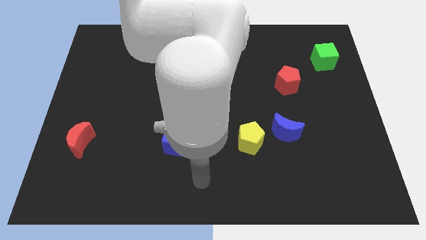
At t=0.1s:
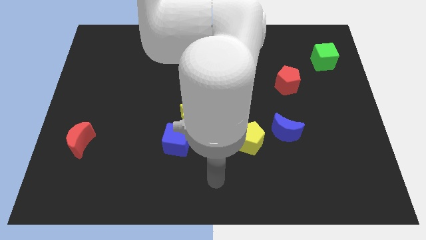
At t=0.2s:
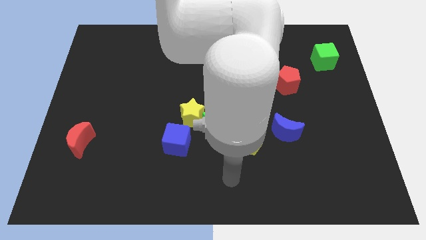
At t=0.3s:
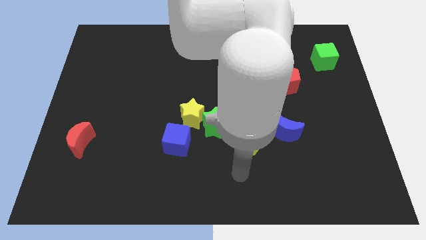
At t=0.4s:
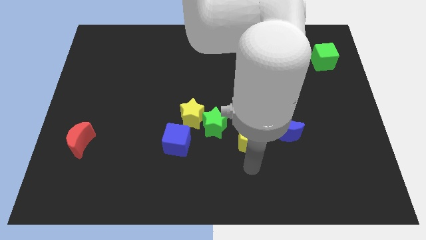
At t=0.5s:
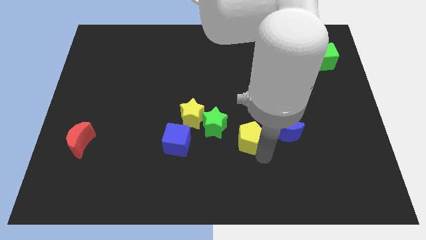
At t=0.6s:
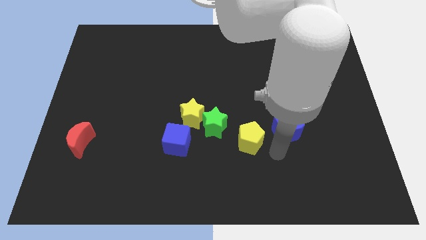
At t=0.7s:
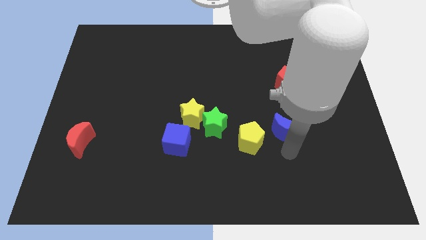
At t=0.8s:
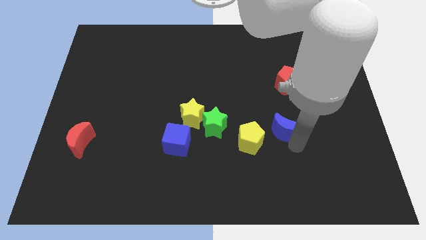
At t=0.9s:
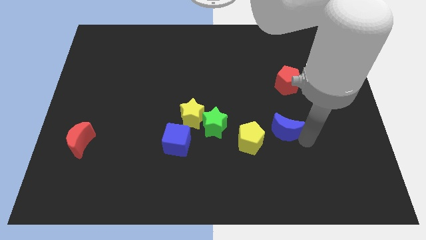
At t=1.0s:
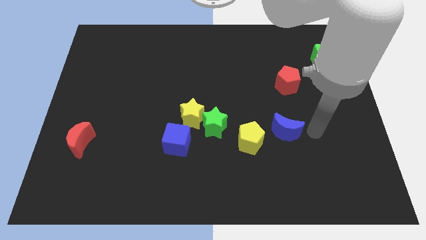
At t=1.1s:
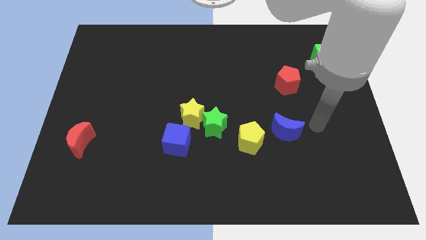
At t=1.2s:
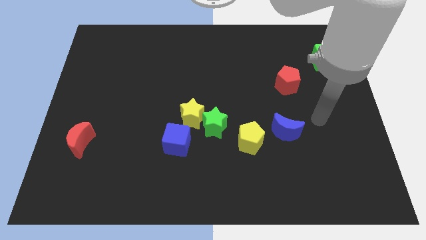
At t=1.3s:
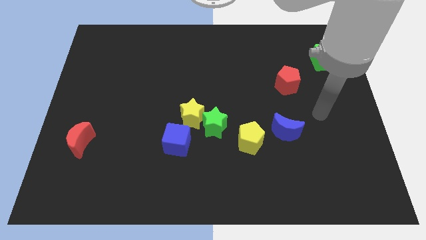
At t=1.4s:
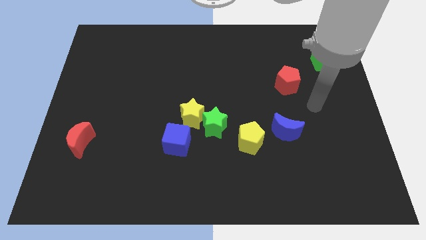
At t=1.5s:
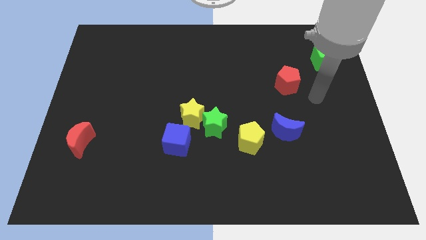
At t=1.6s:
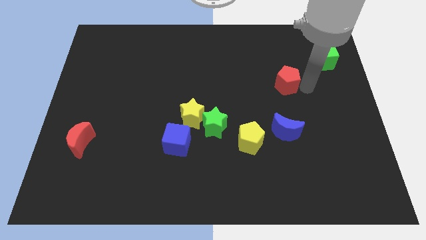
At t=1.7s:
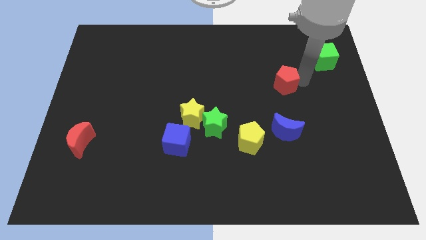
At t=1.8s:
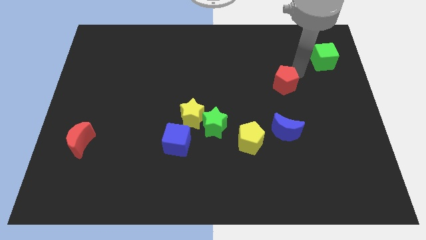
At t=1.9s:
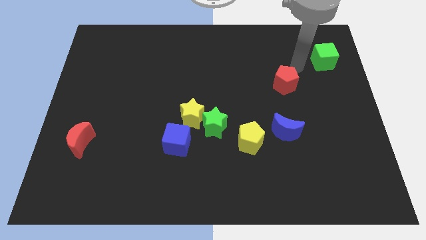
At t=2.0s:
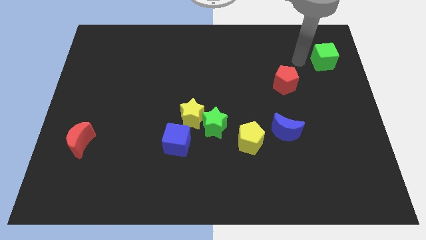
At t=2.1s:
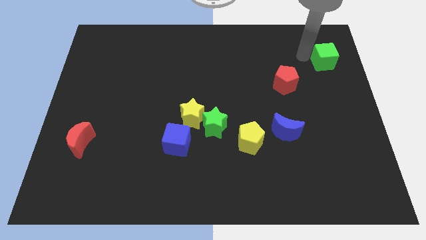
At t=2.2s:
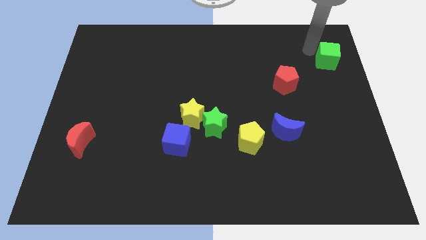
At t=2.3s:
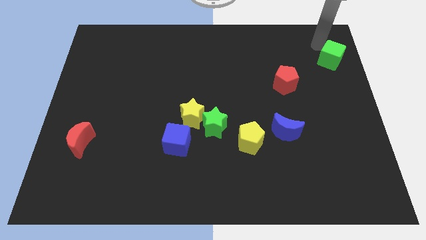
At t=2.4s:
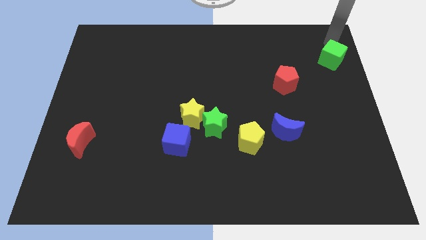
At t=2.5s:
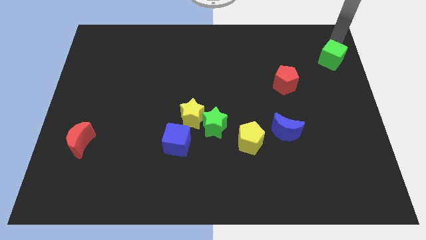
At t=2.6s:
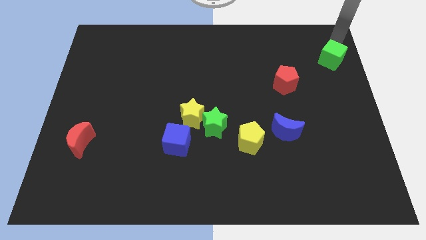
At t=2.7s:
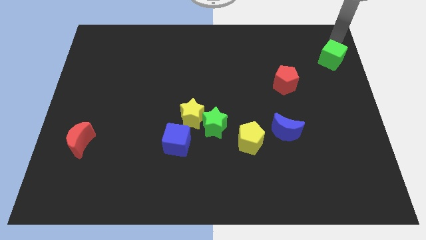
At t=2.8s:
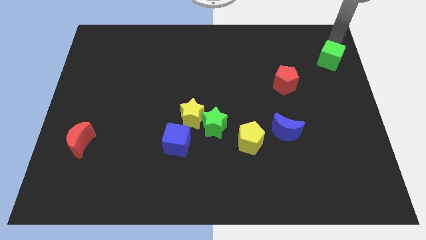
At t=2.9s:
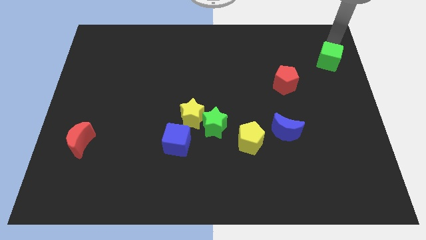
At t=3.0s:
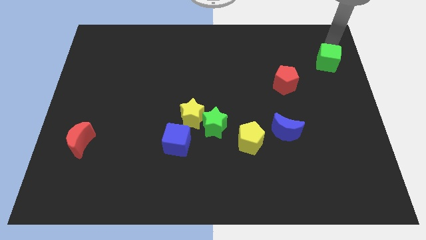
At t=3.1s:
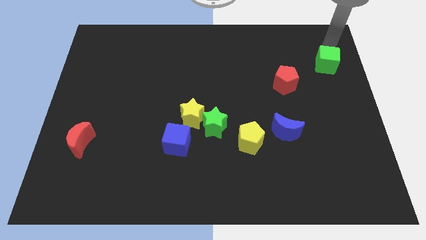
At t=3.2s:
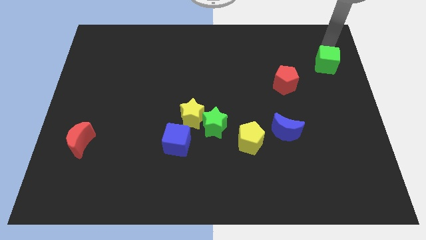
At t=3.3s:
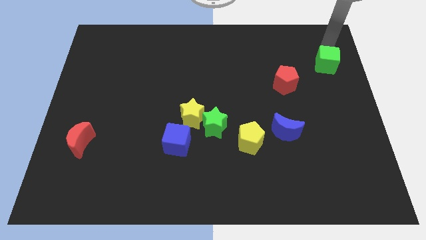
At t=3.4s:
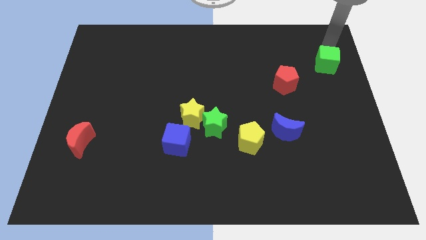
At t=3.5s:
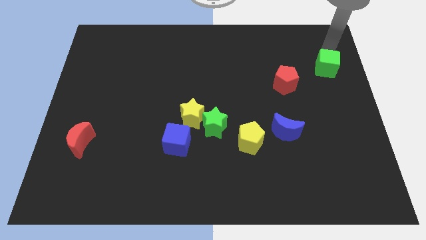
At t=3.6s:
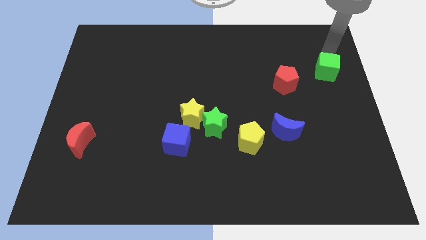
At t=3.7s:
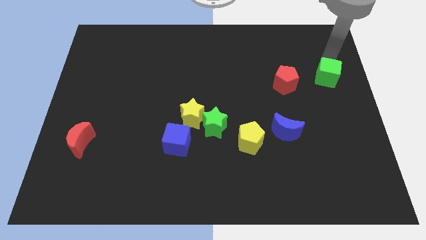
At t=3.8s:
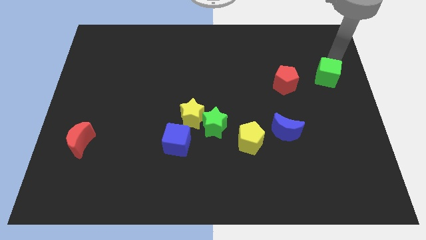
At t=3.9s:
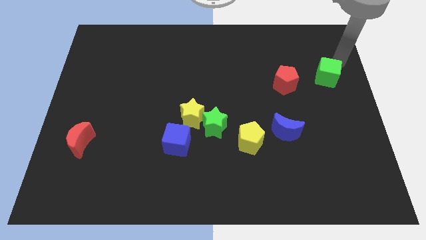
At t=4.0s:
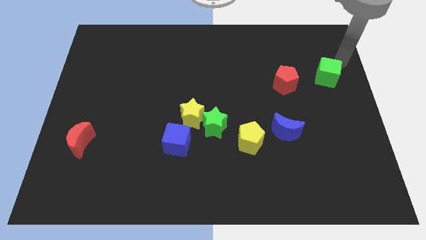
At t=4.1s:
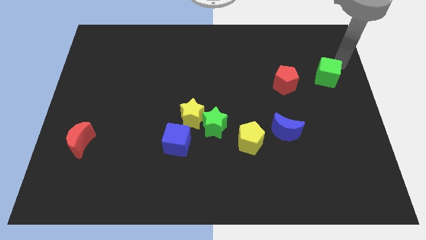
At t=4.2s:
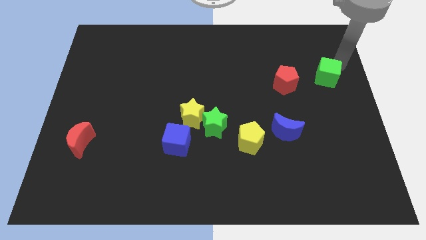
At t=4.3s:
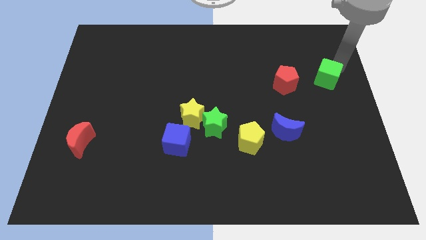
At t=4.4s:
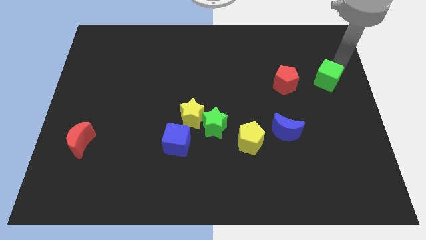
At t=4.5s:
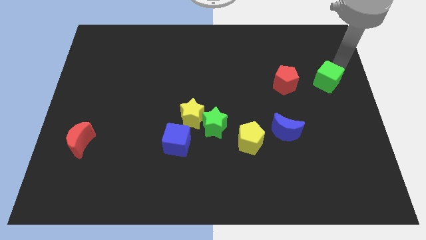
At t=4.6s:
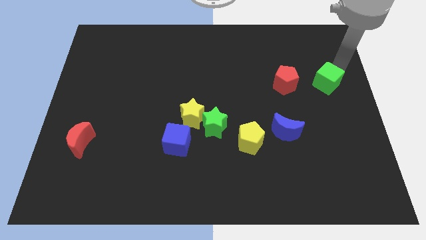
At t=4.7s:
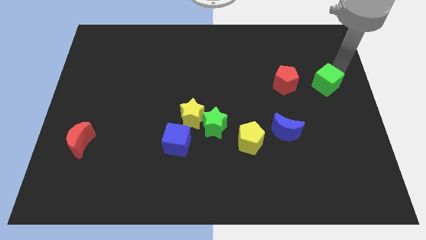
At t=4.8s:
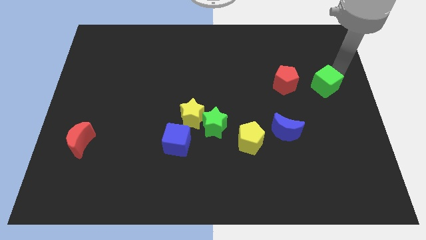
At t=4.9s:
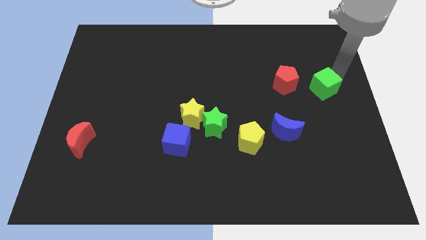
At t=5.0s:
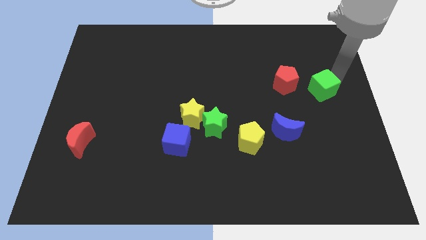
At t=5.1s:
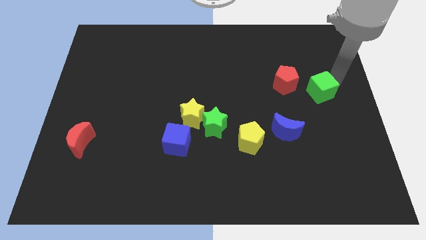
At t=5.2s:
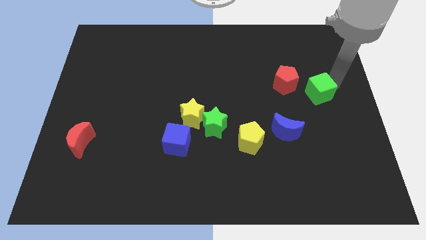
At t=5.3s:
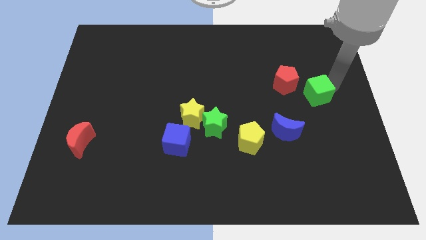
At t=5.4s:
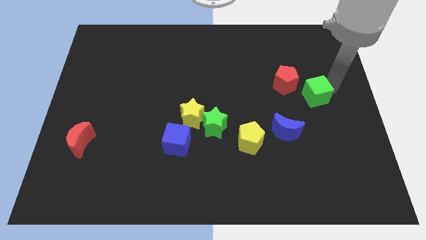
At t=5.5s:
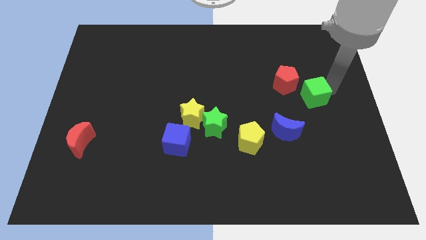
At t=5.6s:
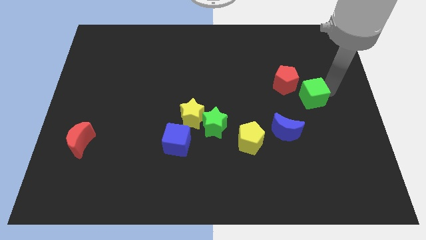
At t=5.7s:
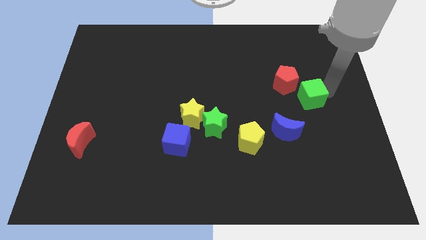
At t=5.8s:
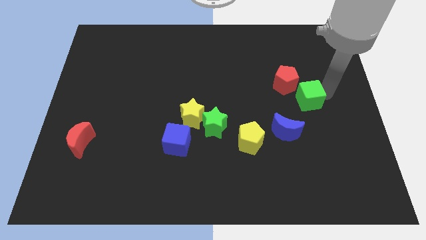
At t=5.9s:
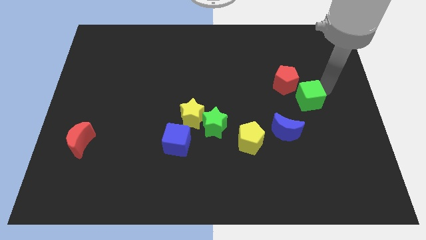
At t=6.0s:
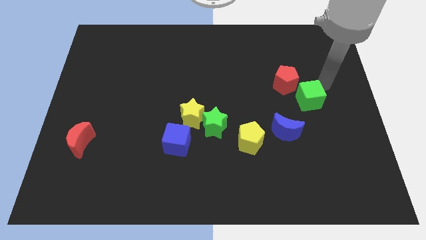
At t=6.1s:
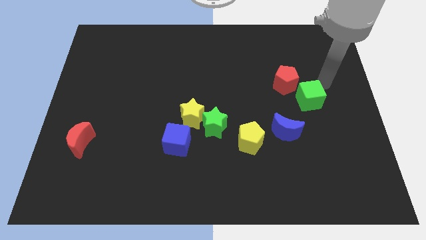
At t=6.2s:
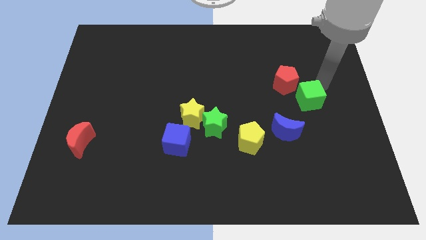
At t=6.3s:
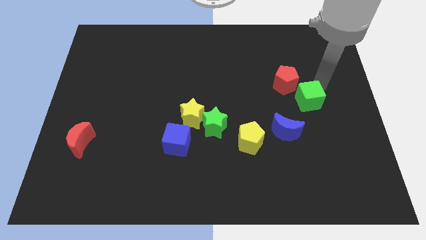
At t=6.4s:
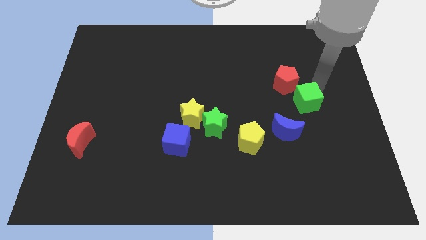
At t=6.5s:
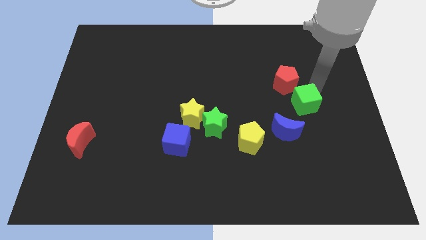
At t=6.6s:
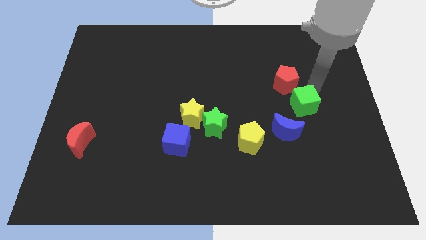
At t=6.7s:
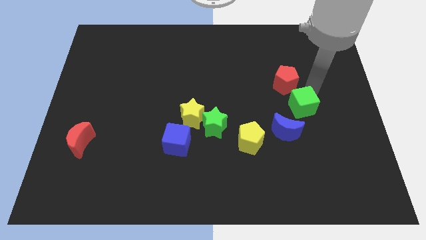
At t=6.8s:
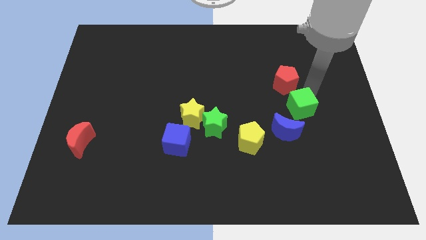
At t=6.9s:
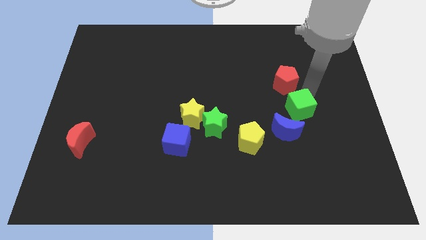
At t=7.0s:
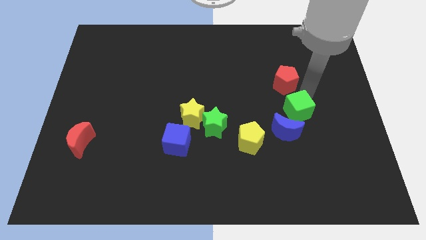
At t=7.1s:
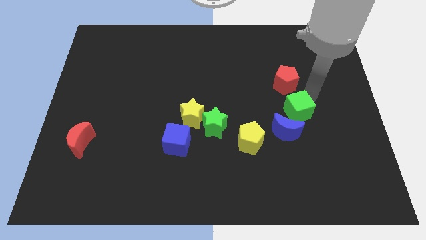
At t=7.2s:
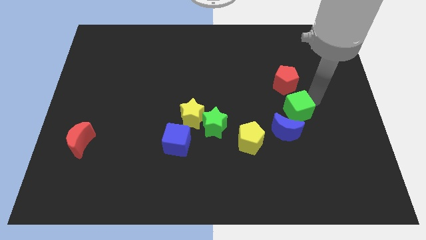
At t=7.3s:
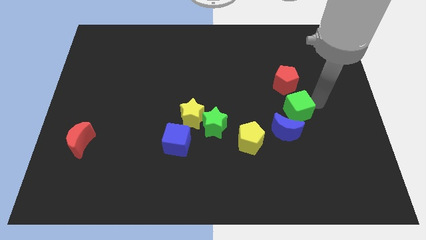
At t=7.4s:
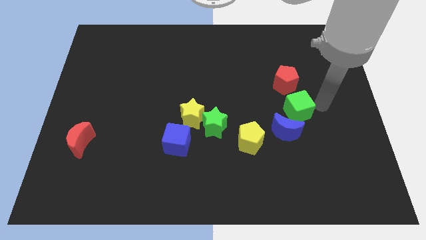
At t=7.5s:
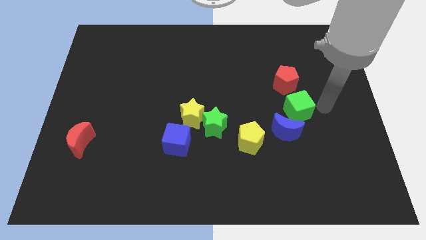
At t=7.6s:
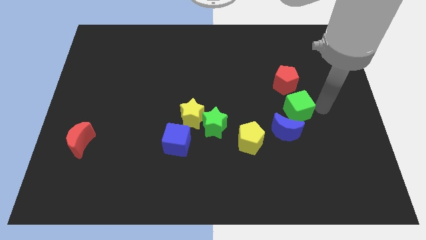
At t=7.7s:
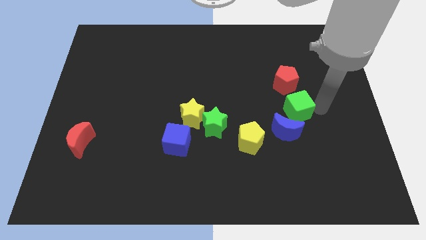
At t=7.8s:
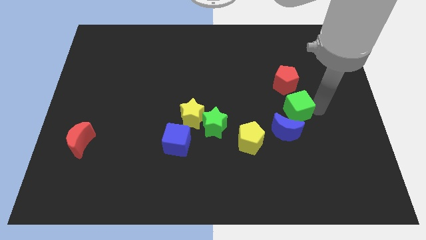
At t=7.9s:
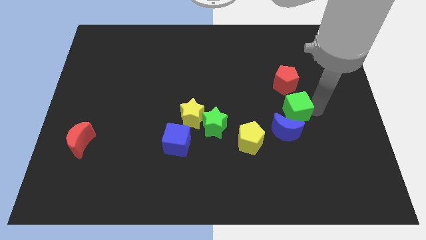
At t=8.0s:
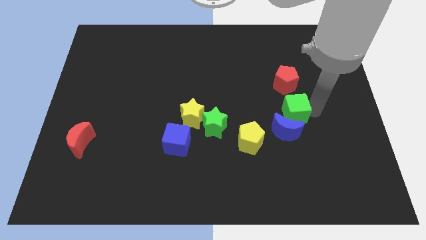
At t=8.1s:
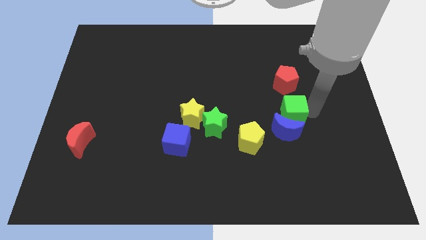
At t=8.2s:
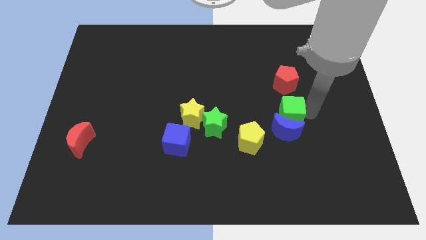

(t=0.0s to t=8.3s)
move the green cube diagonally up and to the right of the yellow pentagon
